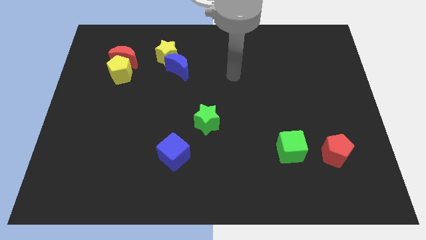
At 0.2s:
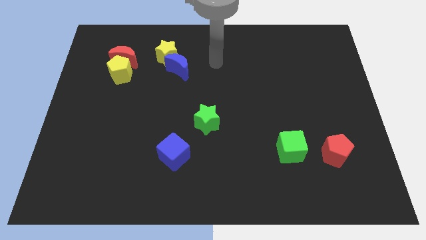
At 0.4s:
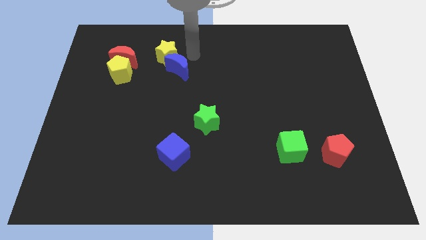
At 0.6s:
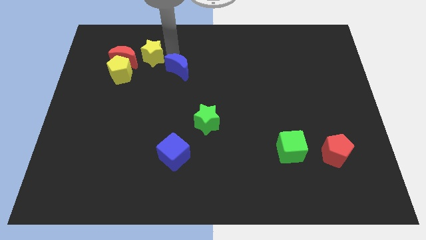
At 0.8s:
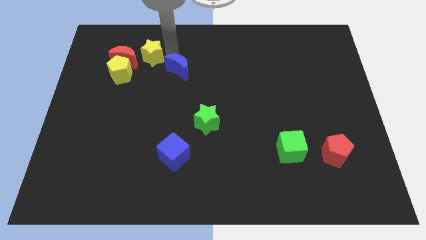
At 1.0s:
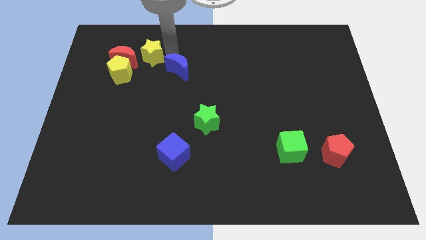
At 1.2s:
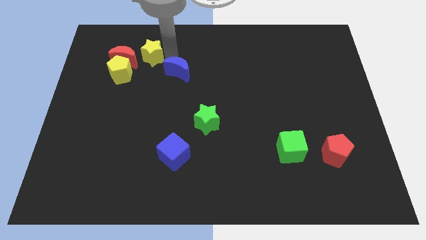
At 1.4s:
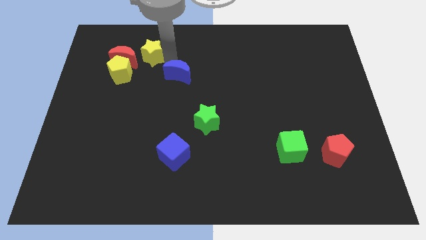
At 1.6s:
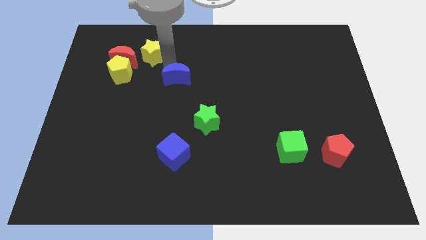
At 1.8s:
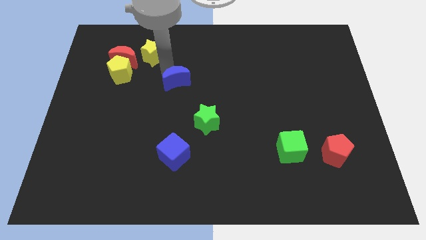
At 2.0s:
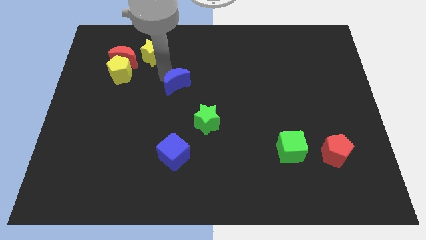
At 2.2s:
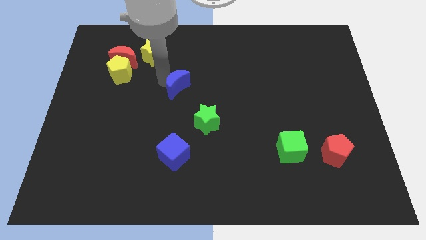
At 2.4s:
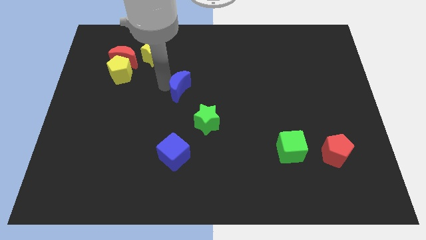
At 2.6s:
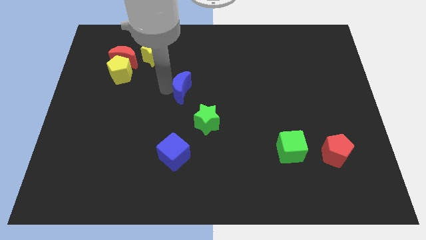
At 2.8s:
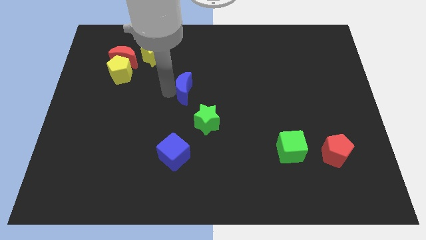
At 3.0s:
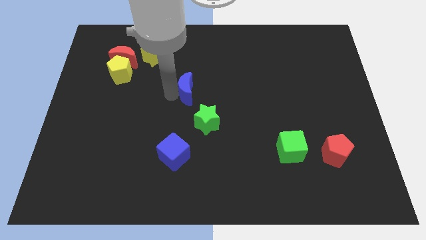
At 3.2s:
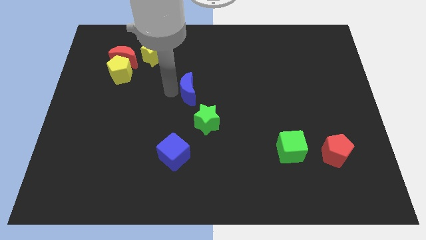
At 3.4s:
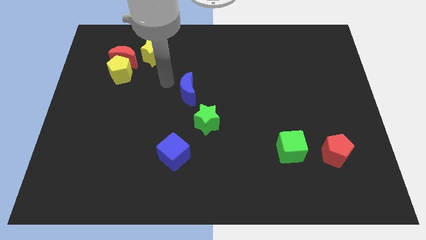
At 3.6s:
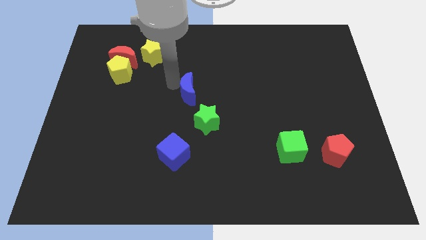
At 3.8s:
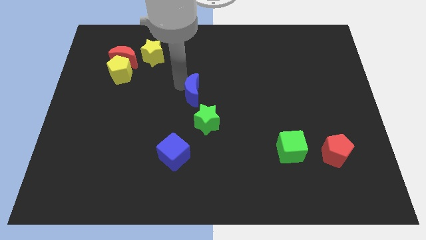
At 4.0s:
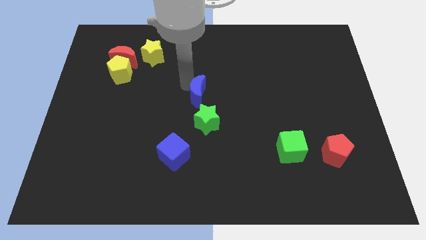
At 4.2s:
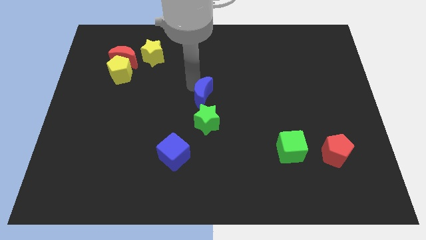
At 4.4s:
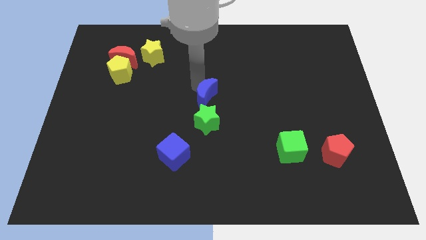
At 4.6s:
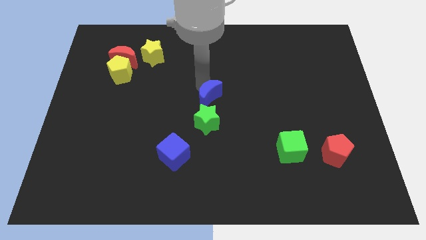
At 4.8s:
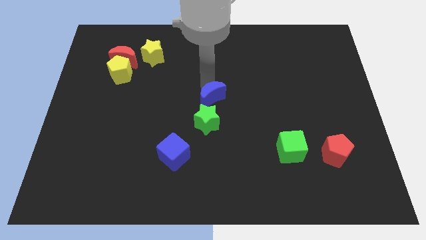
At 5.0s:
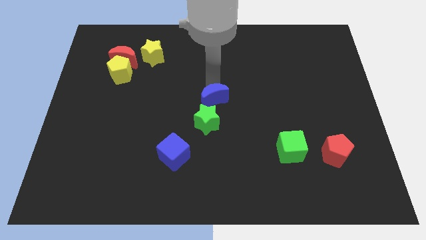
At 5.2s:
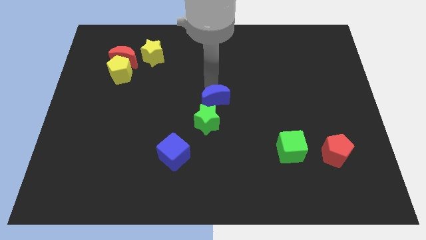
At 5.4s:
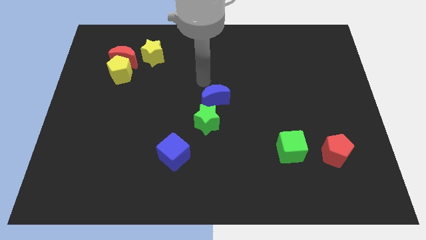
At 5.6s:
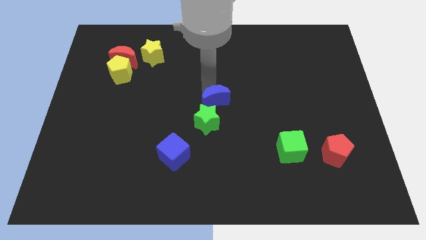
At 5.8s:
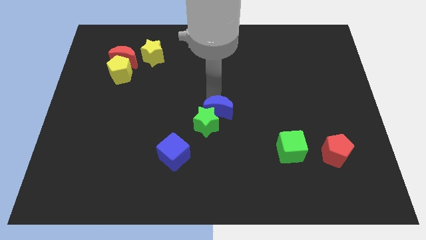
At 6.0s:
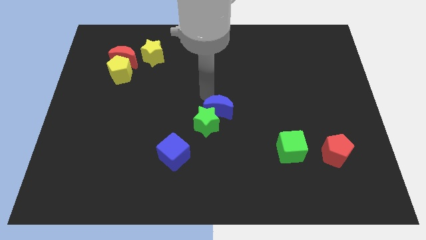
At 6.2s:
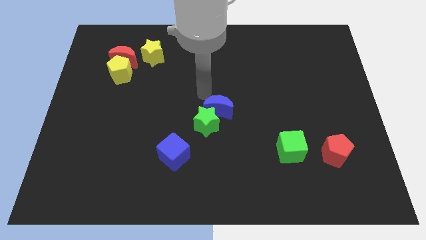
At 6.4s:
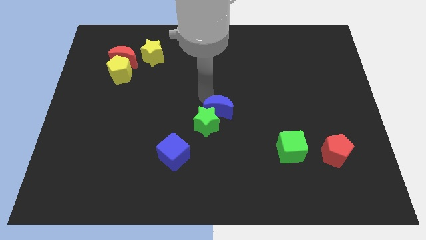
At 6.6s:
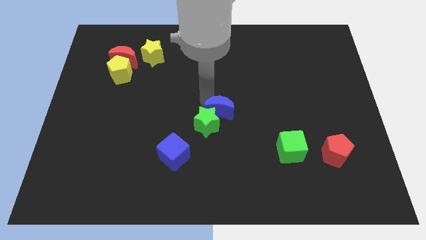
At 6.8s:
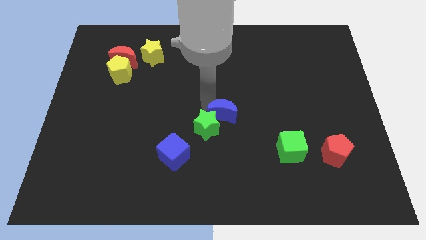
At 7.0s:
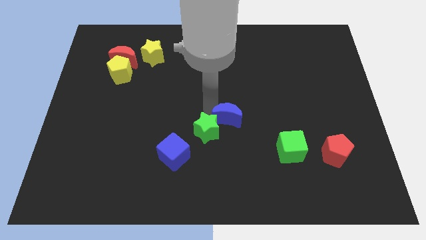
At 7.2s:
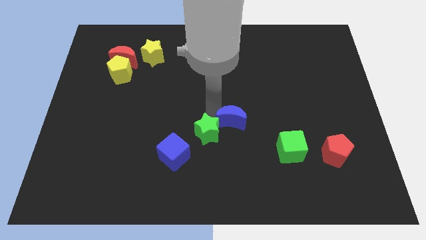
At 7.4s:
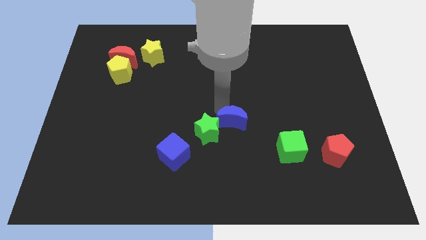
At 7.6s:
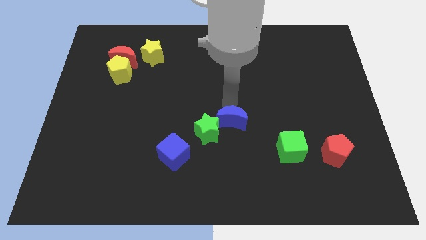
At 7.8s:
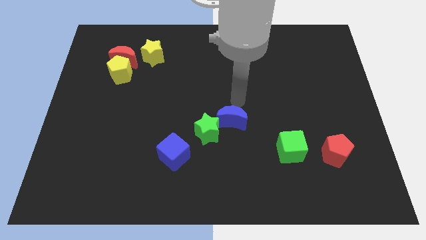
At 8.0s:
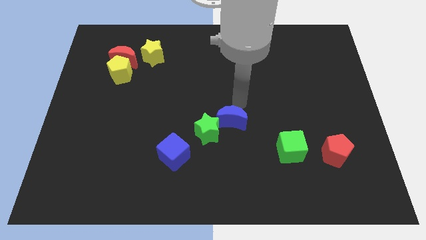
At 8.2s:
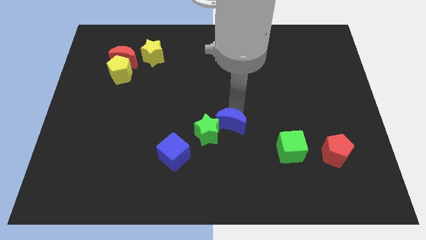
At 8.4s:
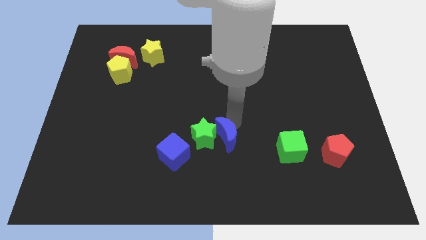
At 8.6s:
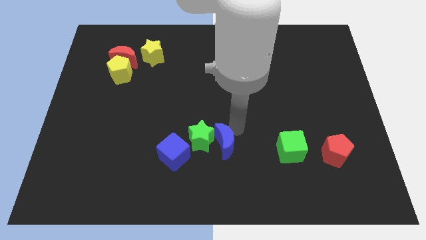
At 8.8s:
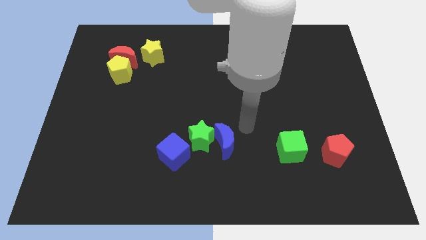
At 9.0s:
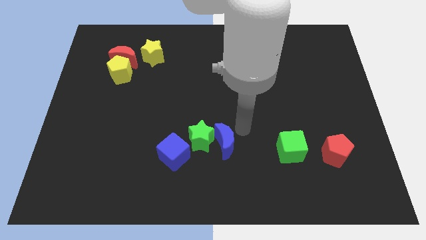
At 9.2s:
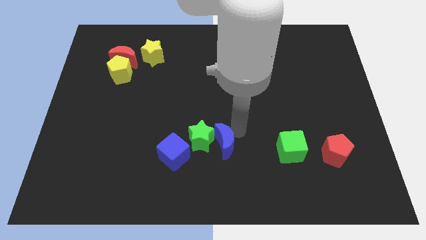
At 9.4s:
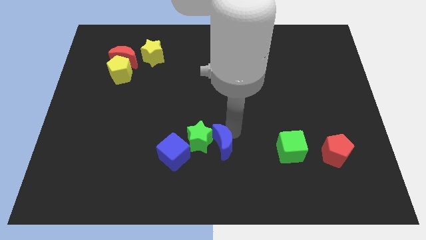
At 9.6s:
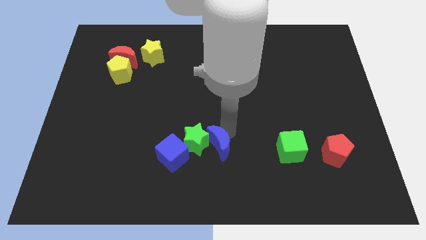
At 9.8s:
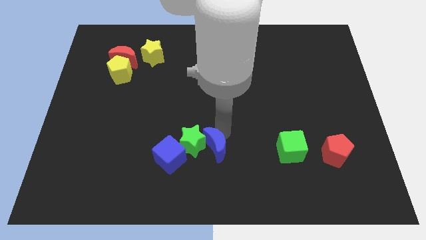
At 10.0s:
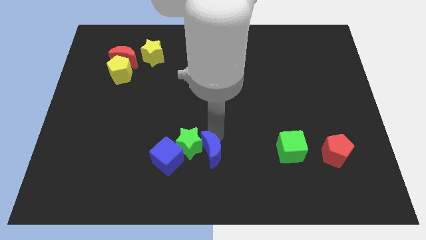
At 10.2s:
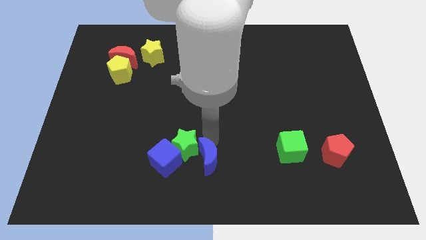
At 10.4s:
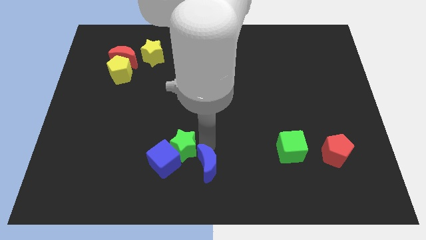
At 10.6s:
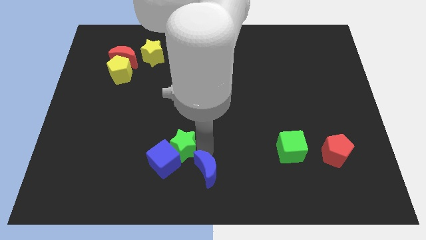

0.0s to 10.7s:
slide the blue moon to the bottom right of the blue cube

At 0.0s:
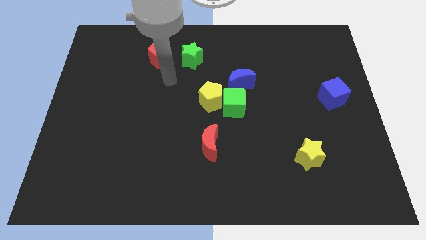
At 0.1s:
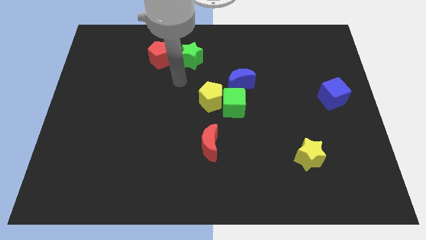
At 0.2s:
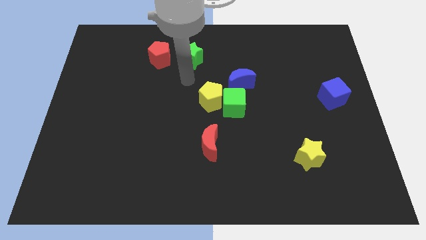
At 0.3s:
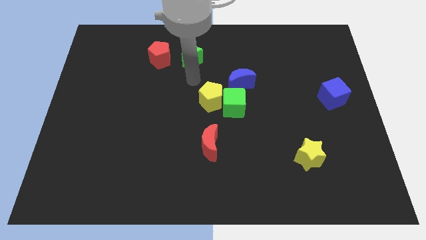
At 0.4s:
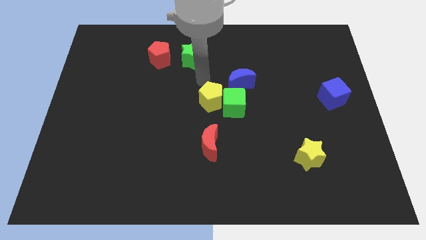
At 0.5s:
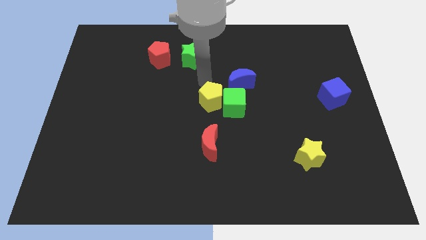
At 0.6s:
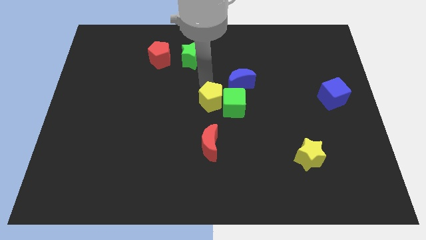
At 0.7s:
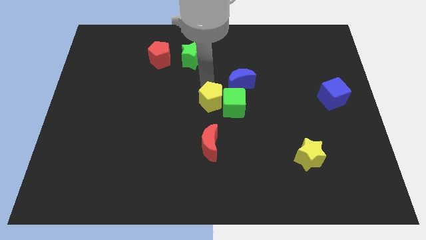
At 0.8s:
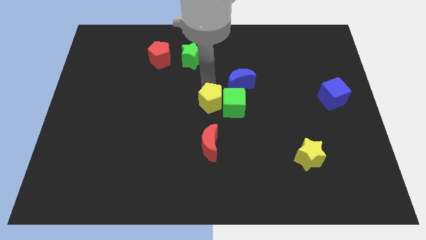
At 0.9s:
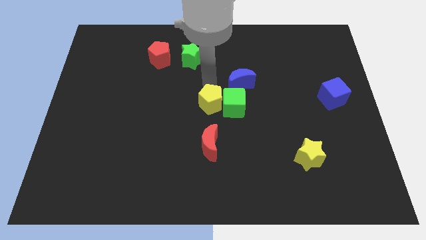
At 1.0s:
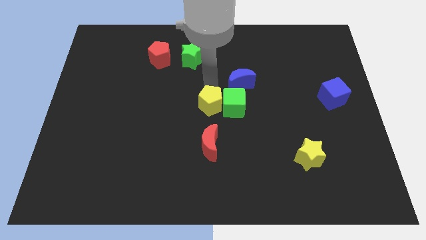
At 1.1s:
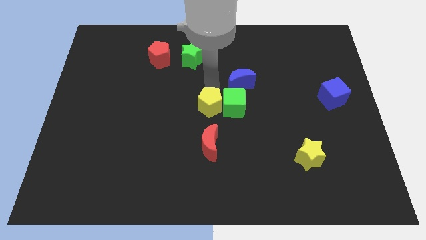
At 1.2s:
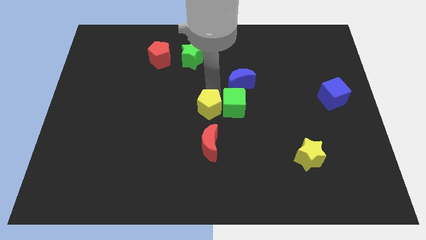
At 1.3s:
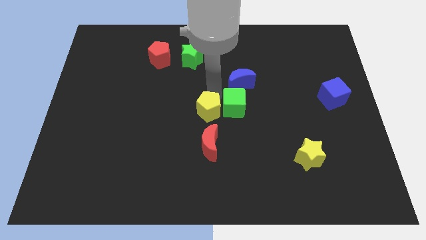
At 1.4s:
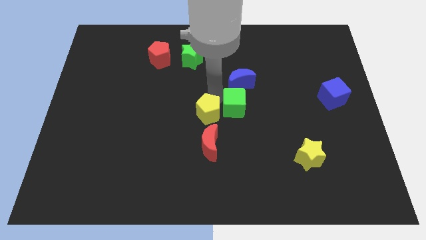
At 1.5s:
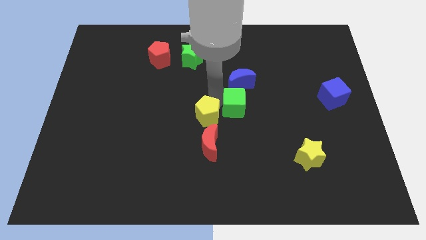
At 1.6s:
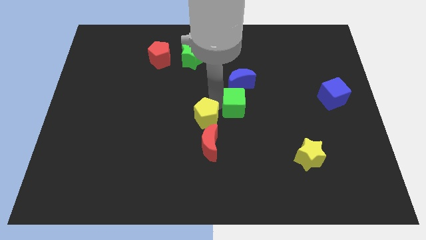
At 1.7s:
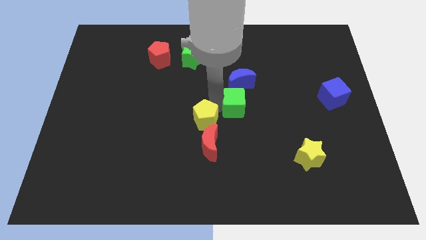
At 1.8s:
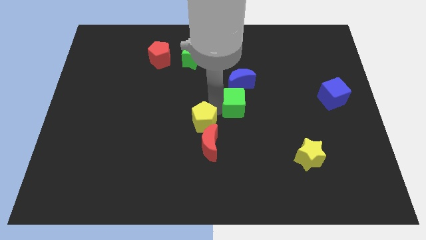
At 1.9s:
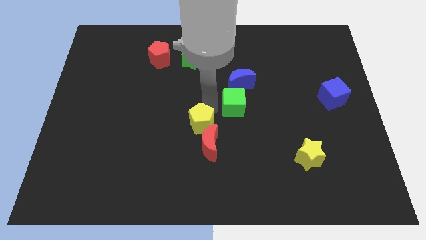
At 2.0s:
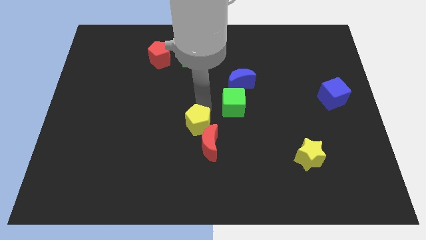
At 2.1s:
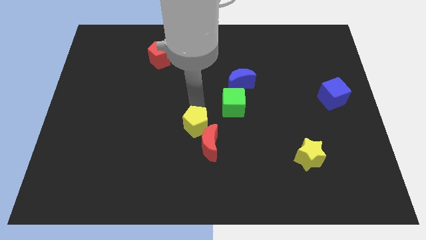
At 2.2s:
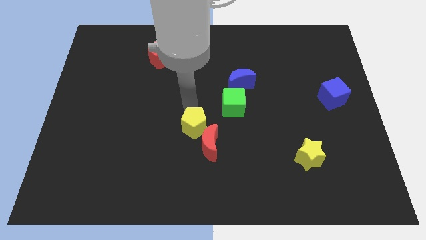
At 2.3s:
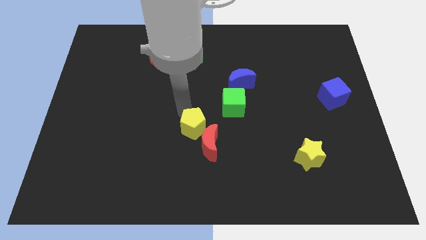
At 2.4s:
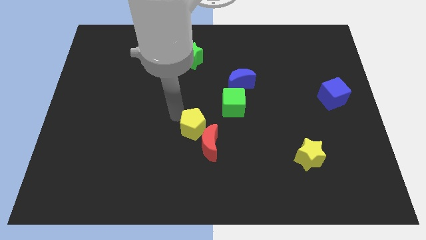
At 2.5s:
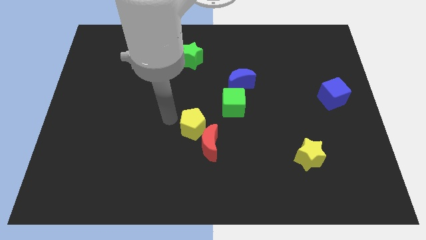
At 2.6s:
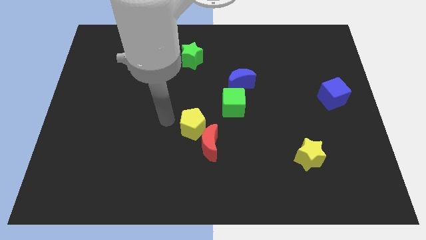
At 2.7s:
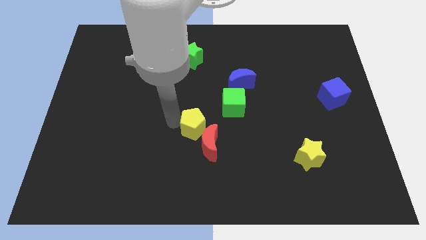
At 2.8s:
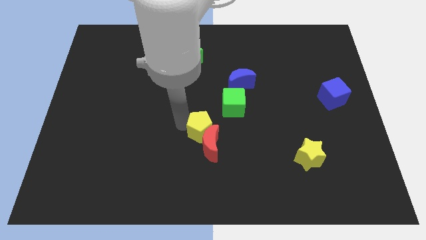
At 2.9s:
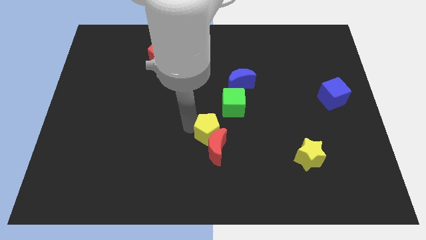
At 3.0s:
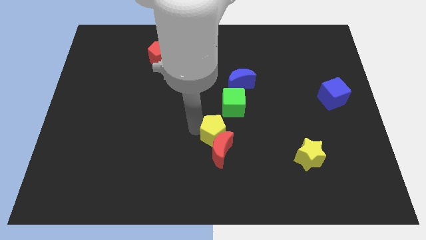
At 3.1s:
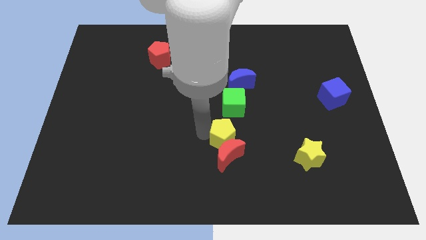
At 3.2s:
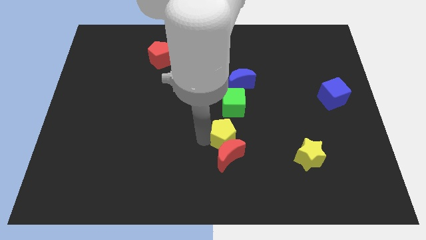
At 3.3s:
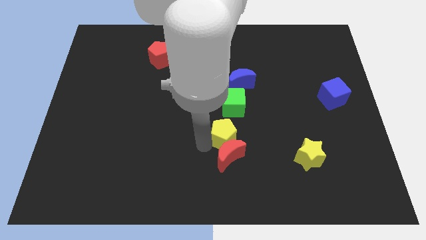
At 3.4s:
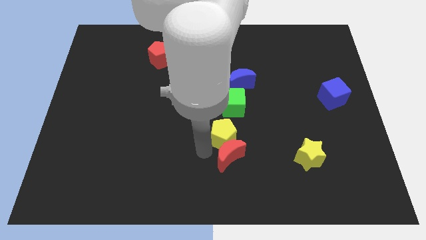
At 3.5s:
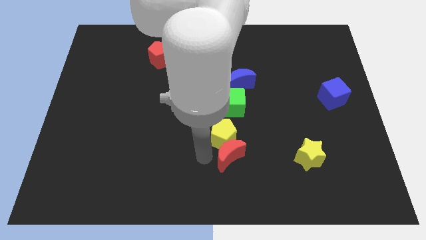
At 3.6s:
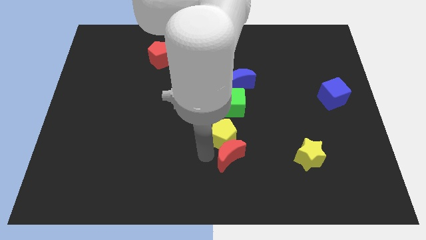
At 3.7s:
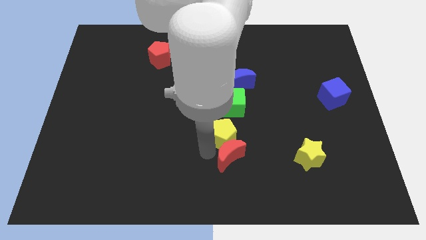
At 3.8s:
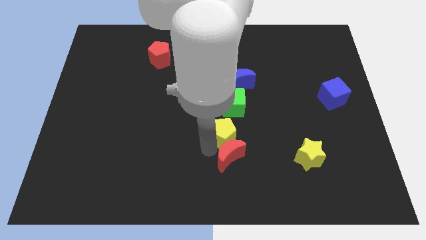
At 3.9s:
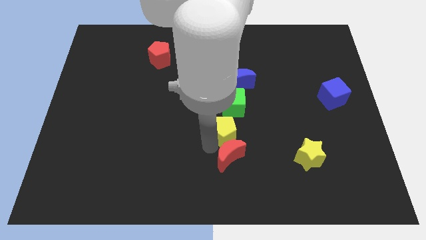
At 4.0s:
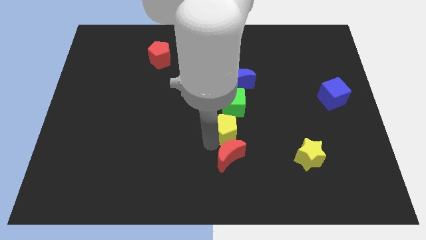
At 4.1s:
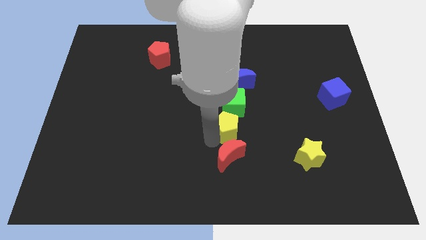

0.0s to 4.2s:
move the yellow pentagon to the bottom side of the blue moon
